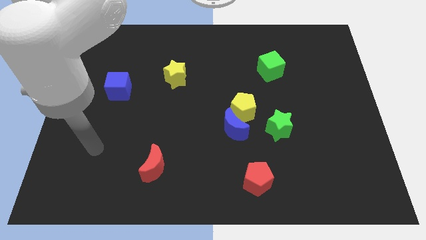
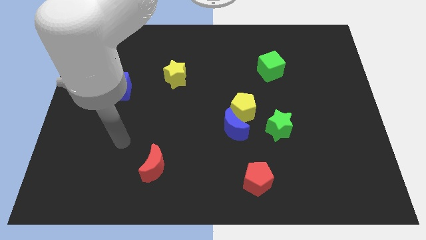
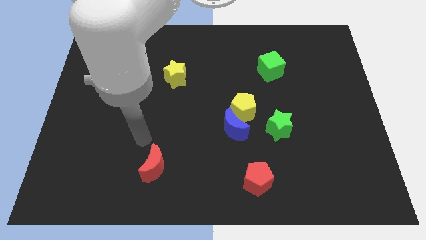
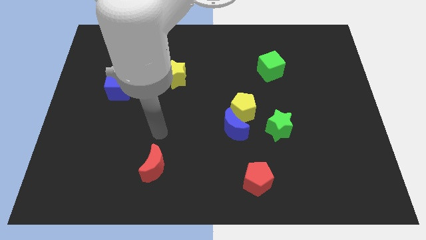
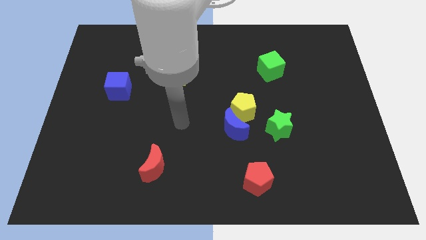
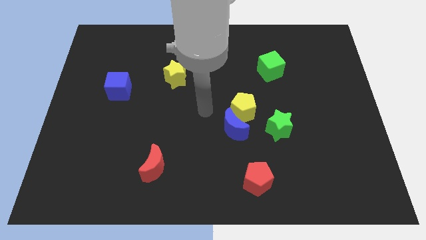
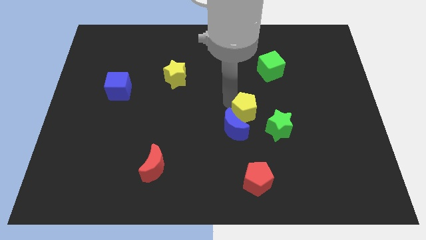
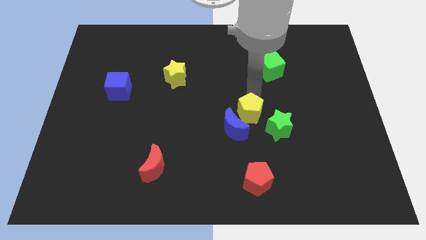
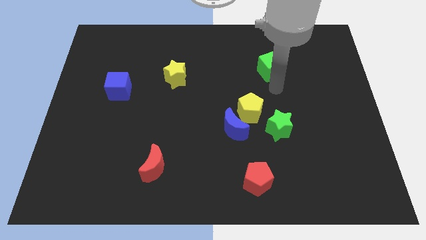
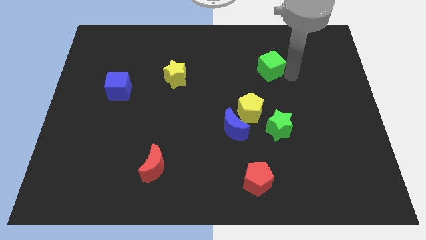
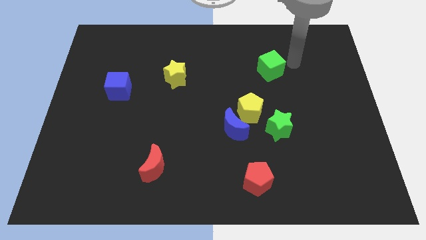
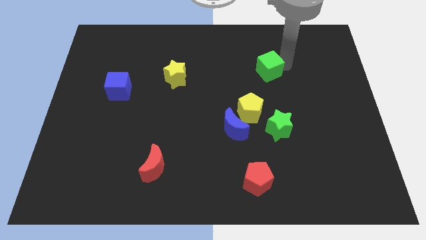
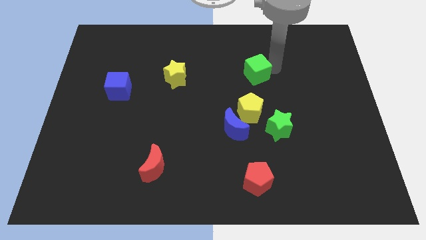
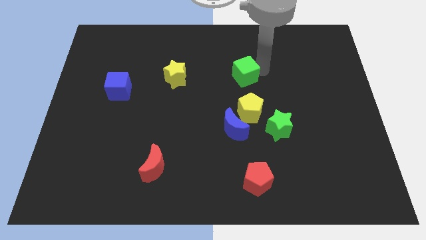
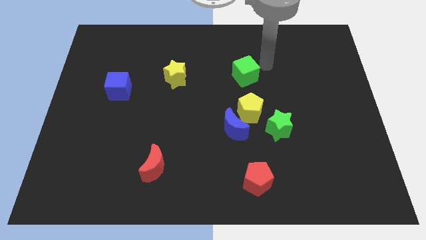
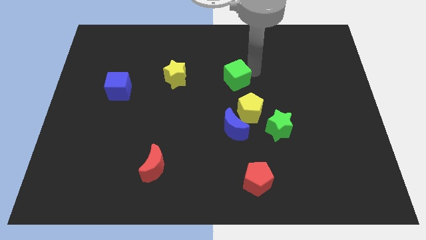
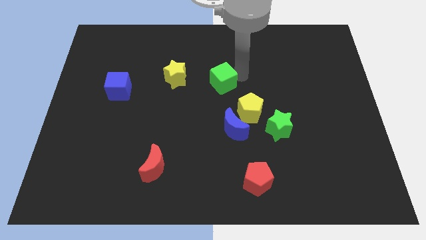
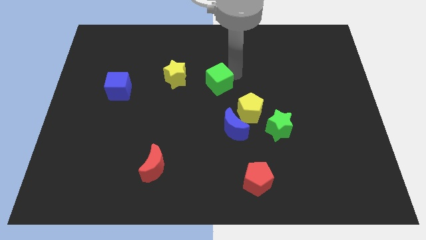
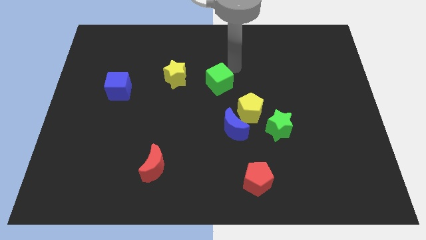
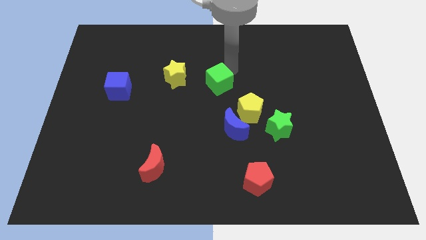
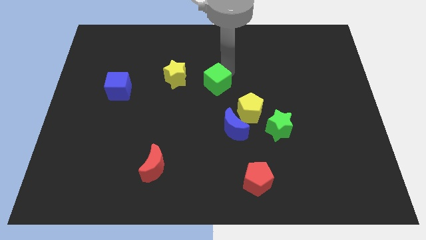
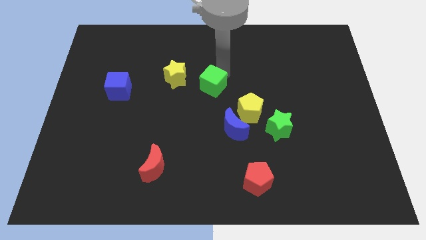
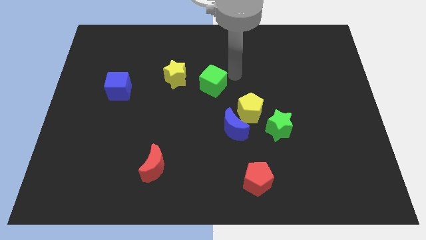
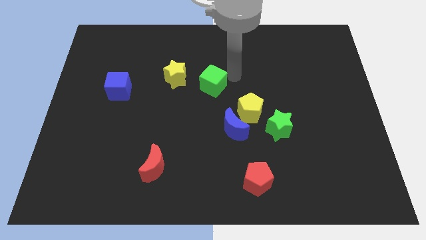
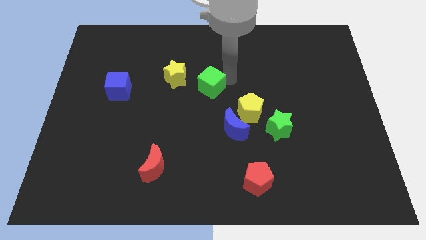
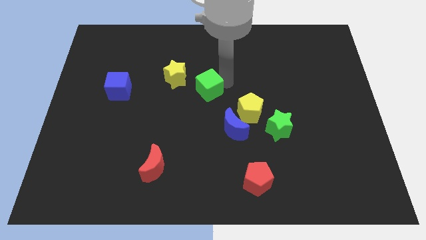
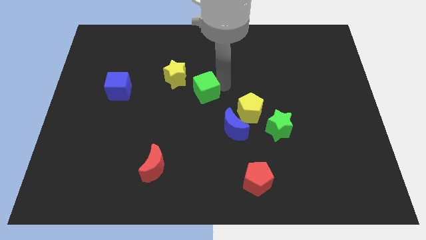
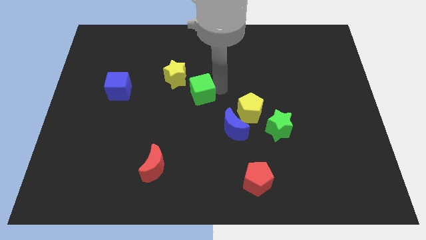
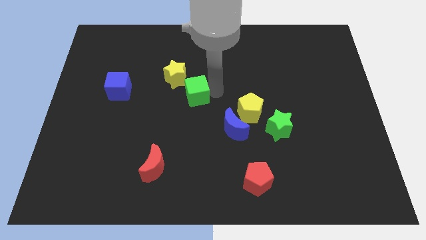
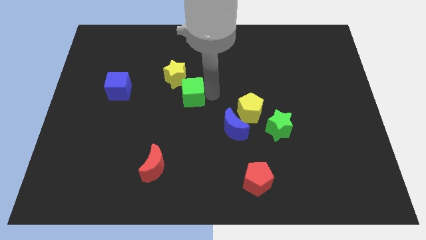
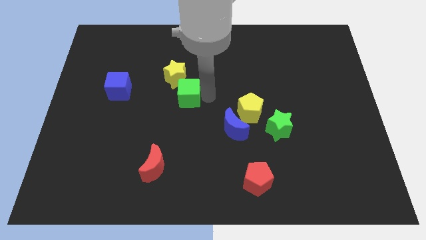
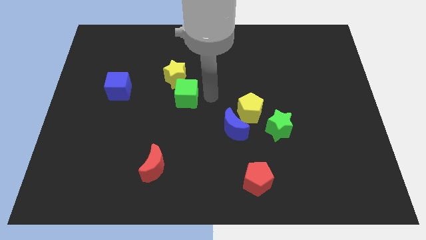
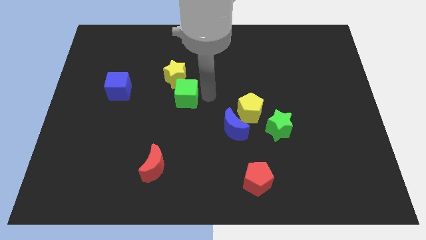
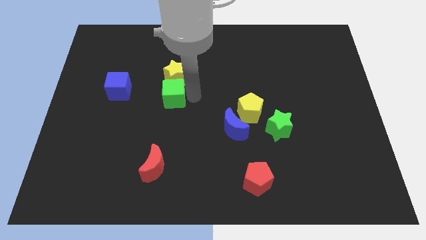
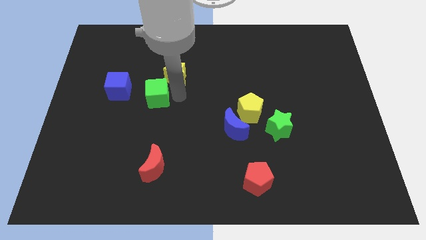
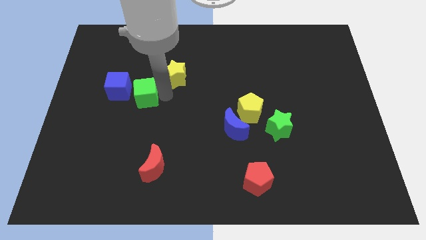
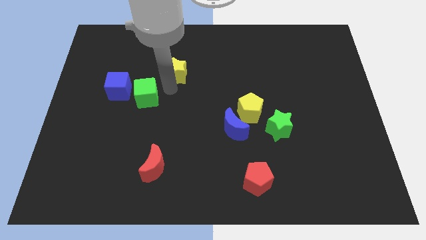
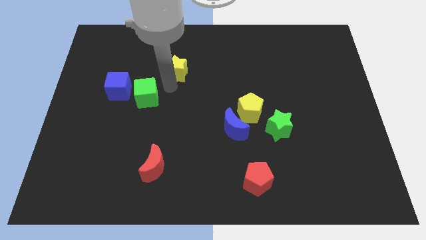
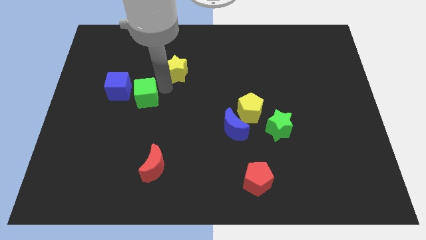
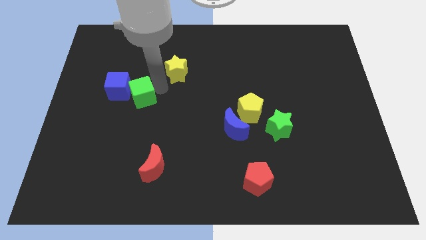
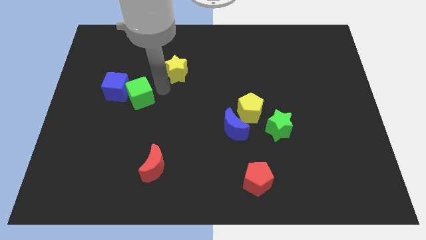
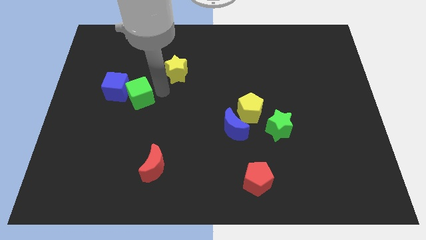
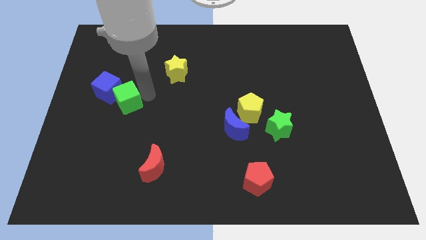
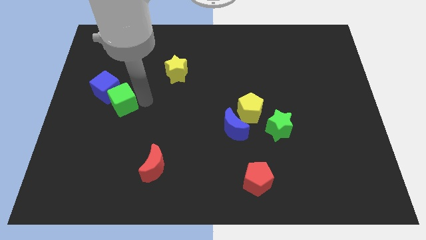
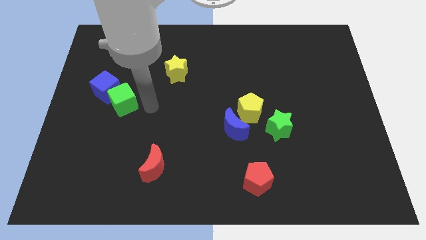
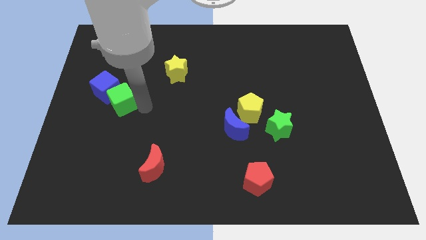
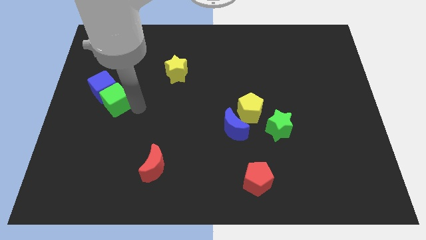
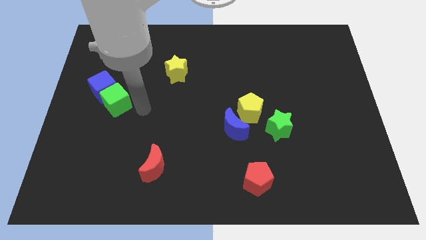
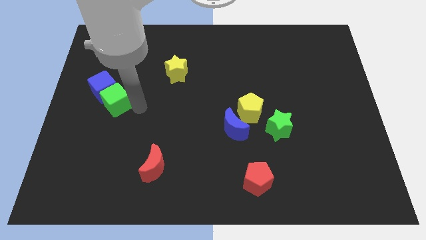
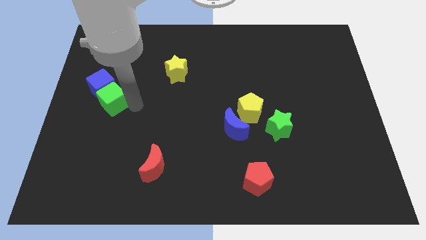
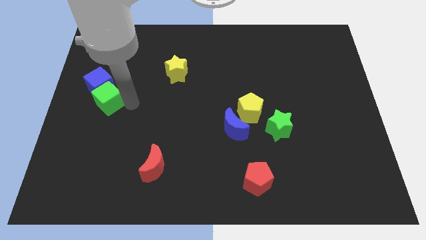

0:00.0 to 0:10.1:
push the green cube to the left side

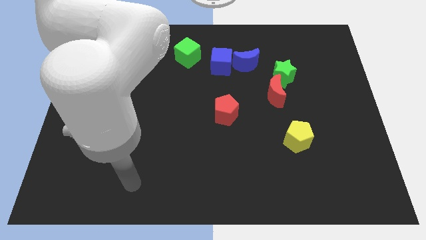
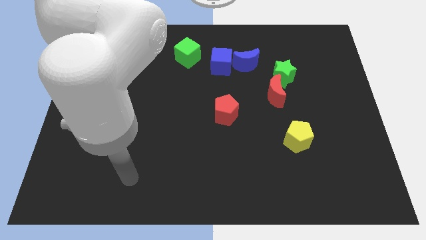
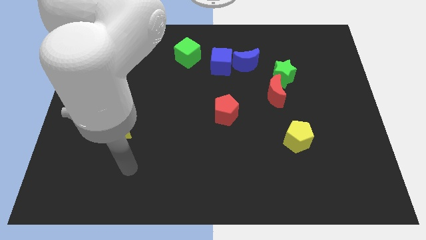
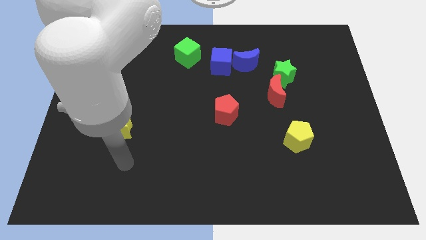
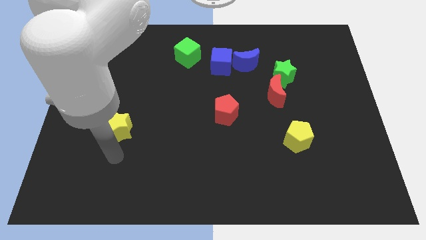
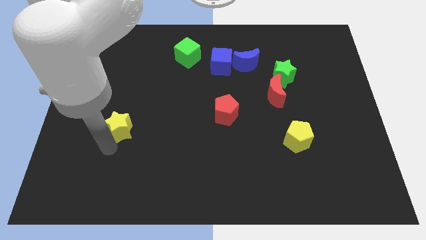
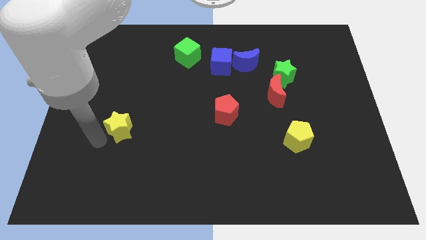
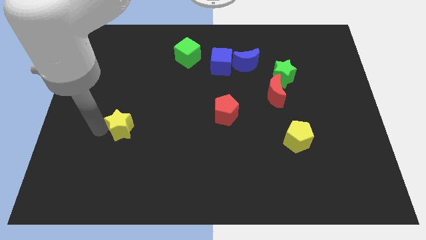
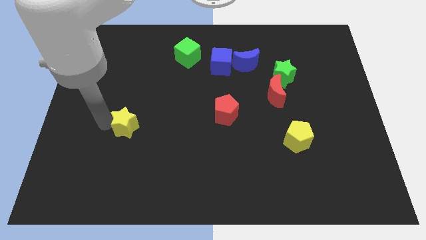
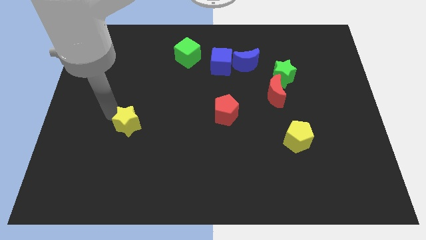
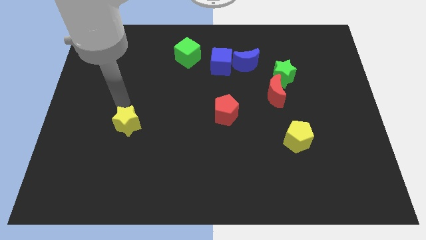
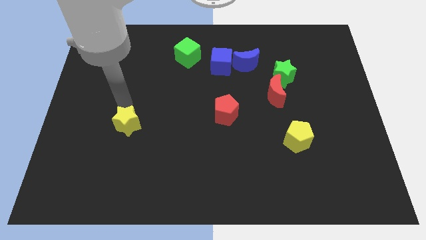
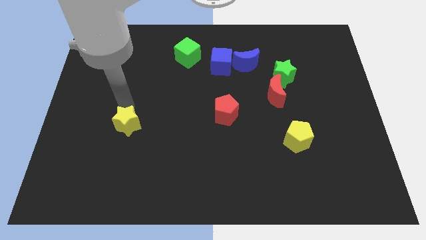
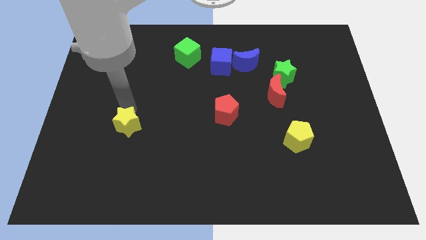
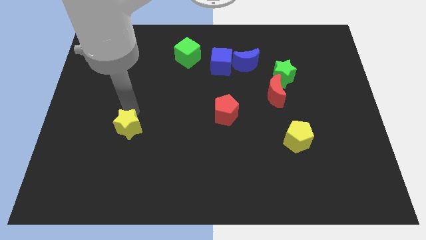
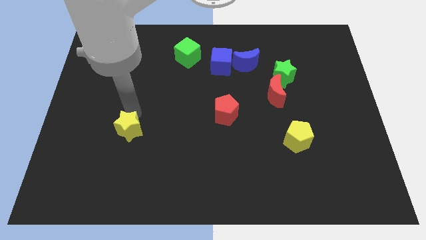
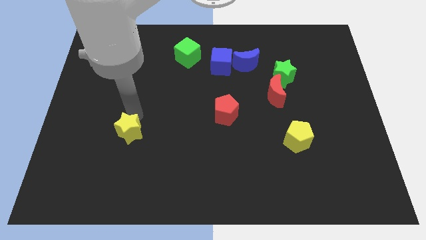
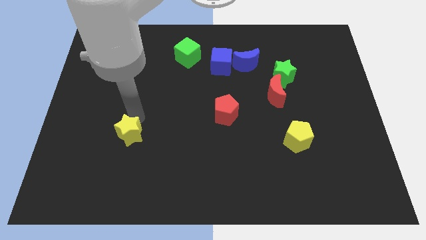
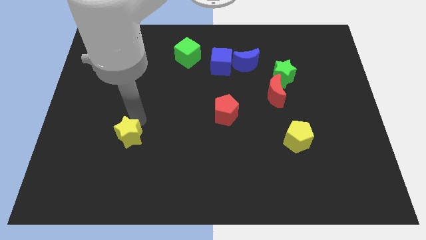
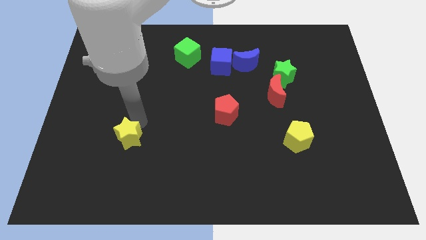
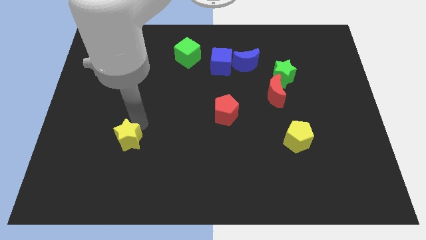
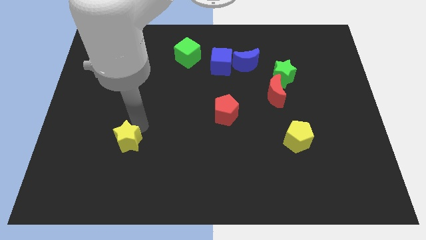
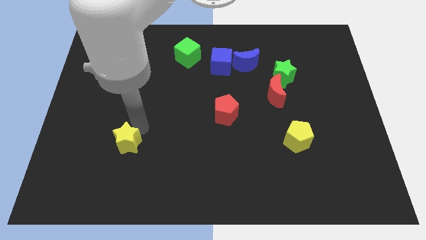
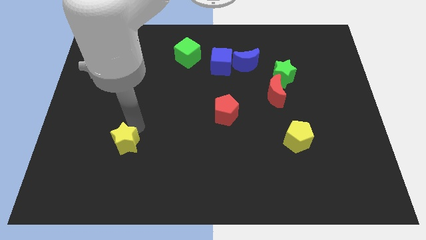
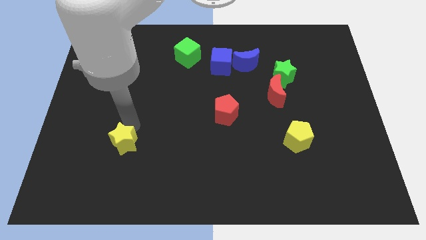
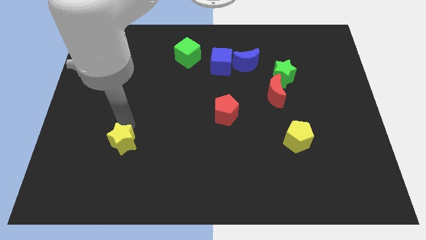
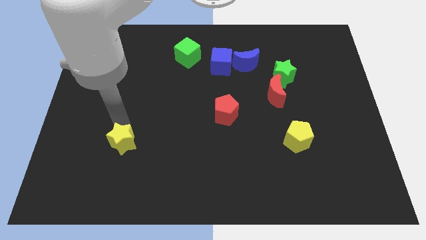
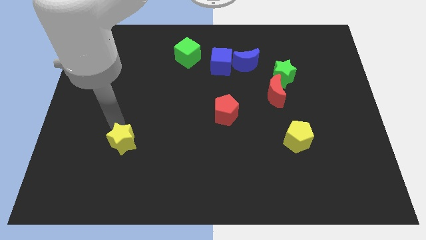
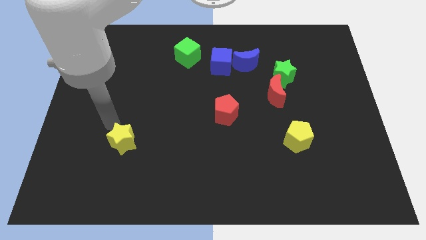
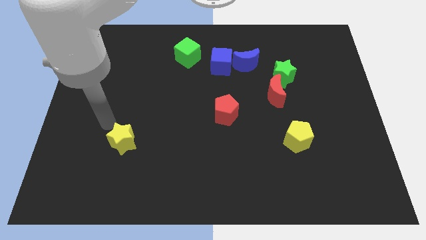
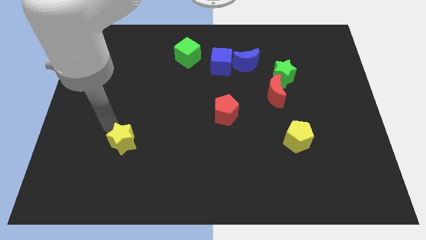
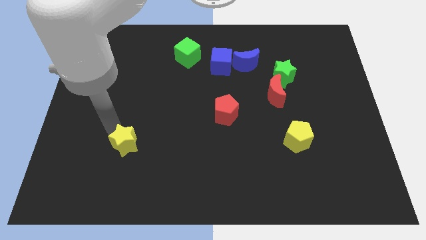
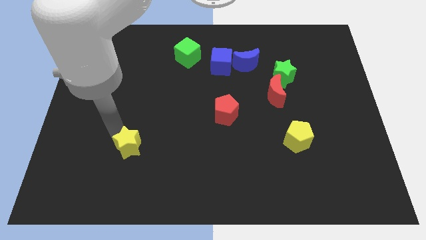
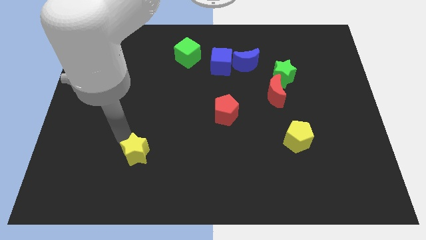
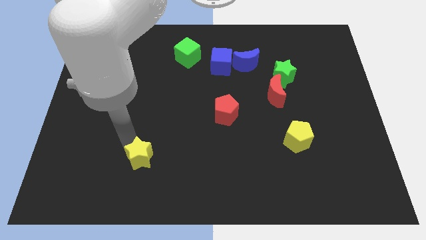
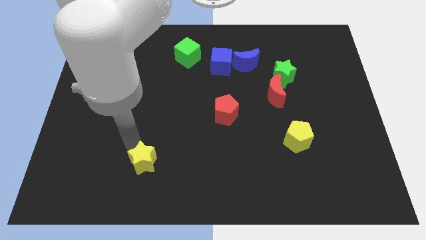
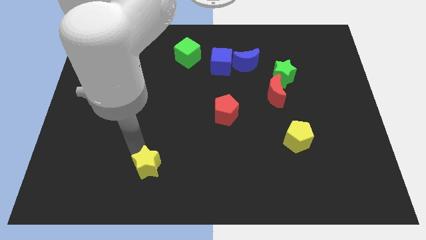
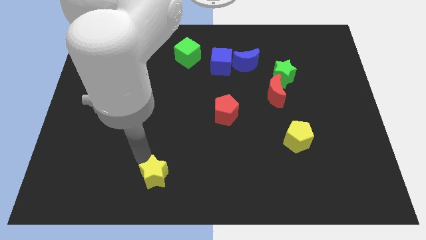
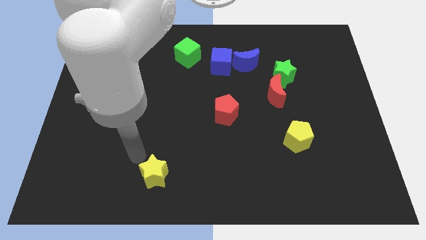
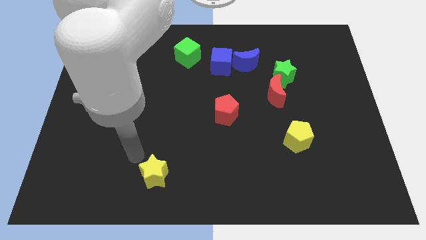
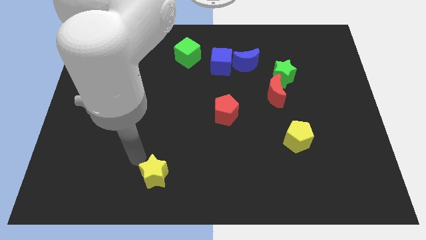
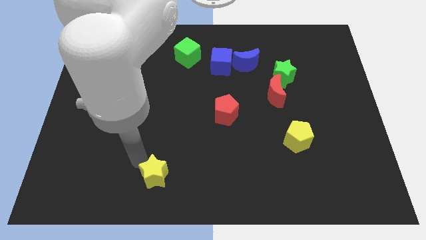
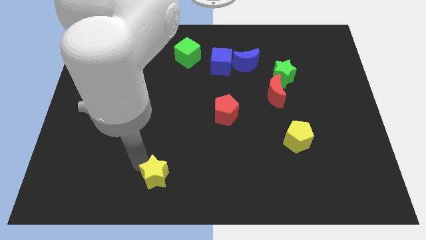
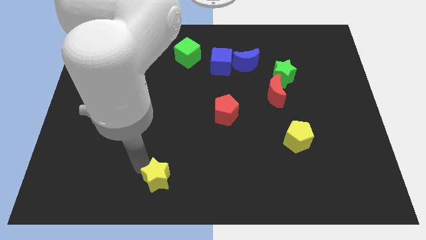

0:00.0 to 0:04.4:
put the yellow star to the bottom
